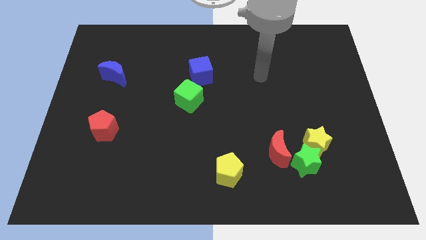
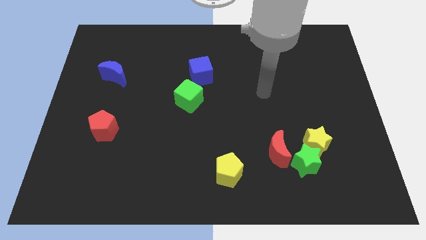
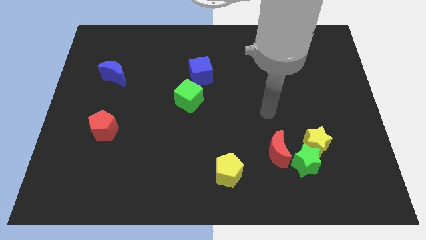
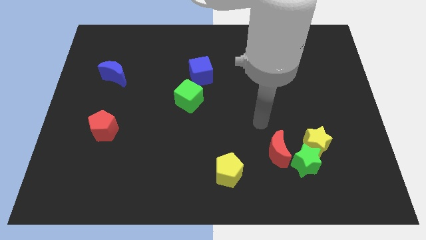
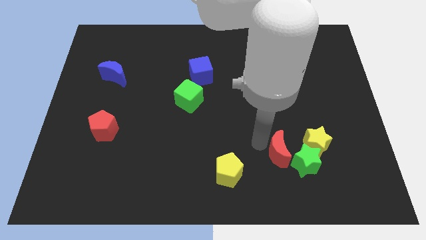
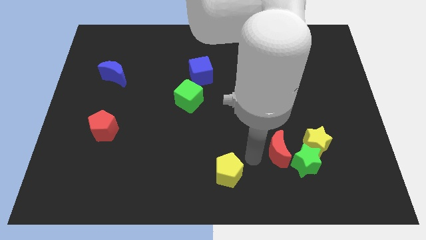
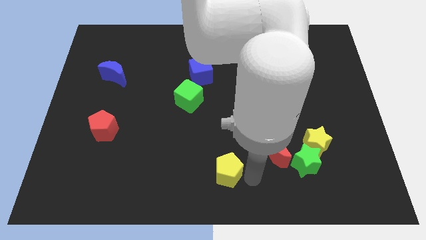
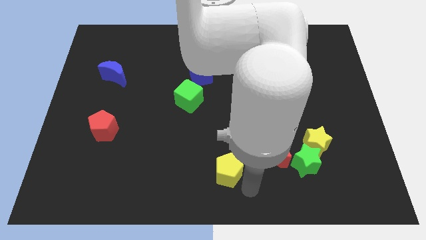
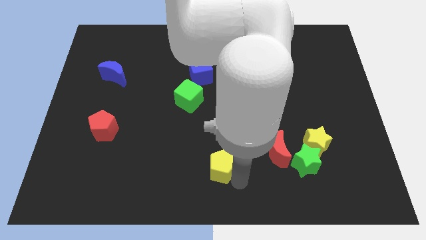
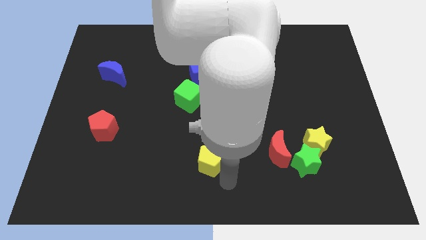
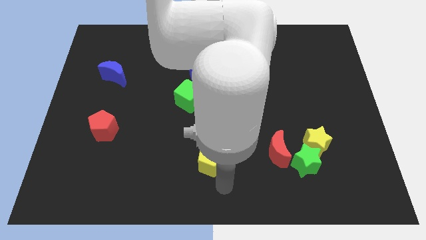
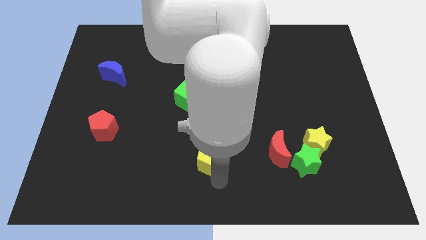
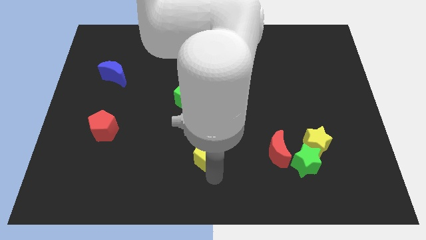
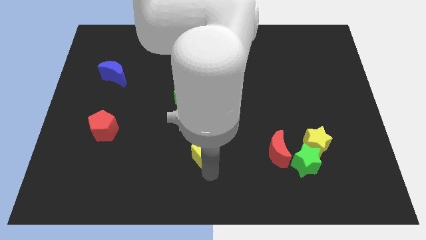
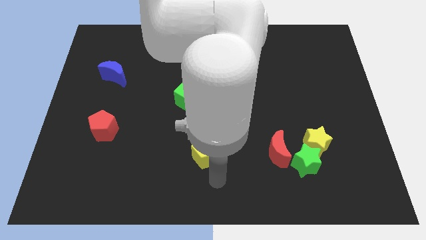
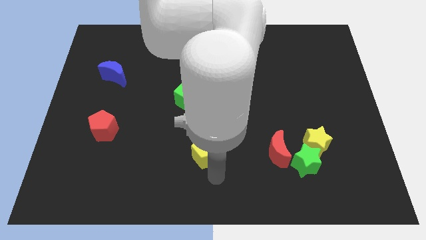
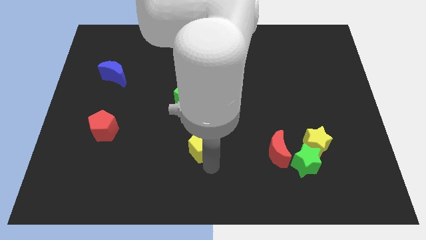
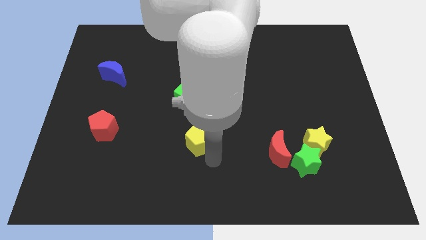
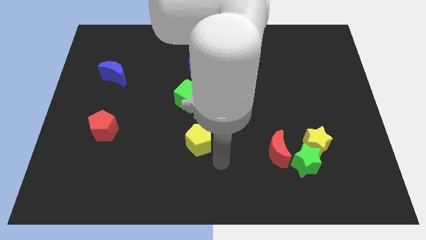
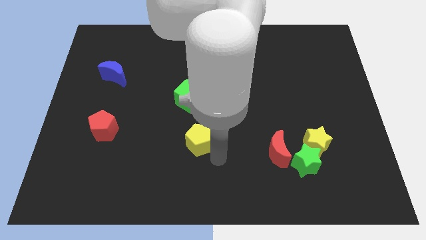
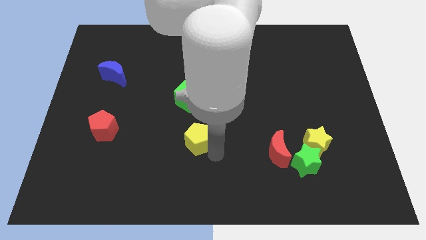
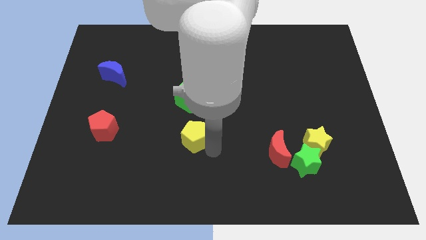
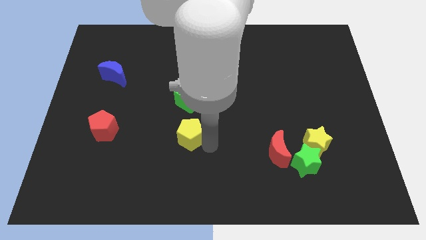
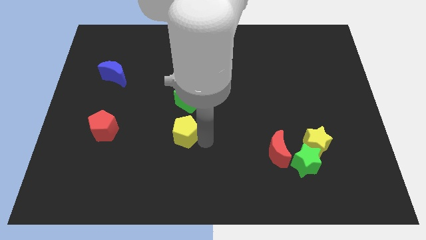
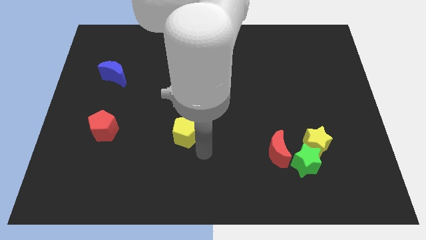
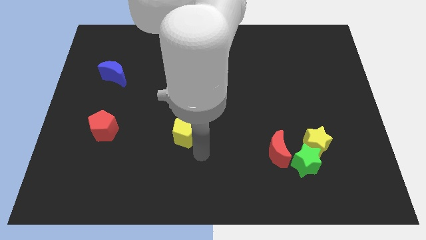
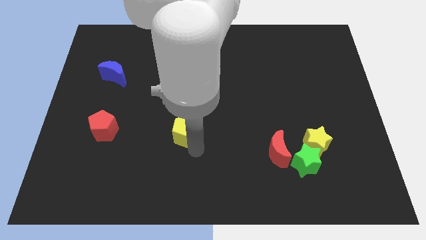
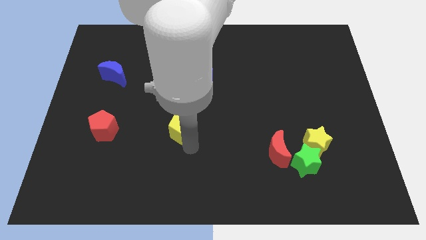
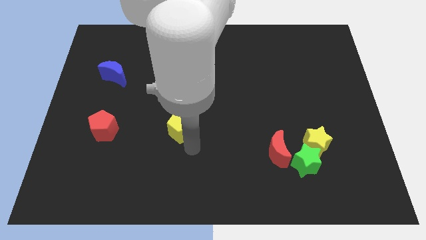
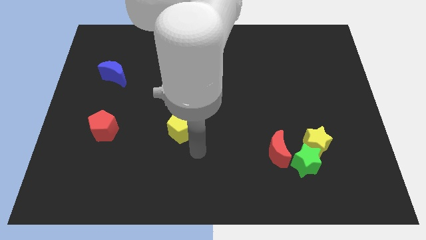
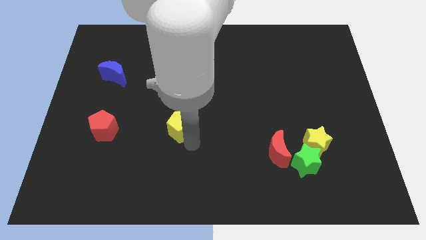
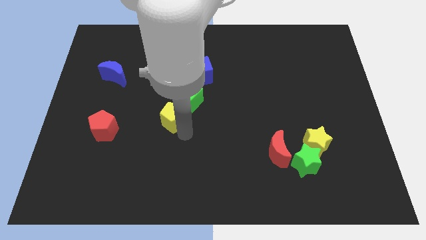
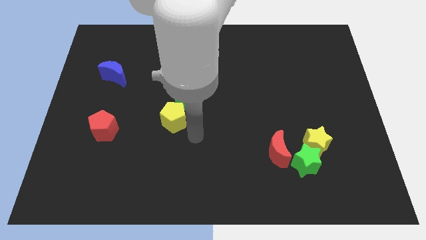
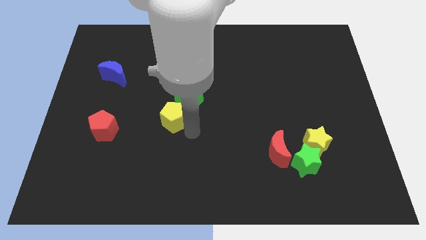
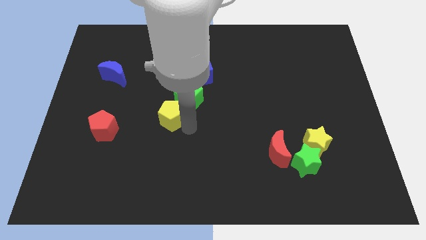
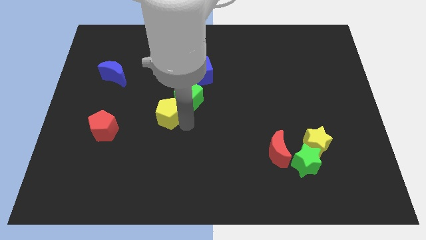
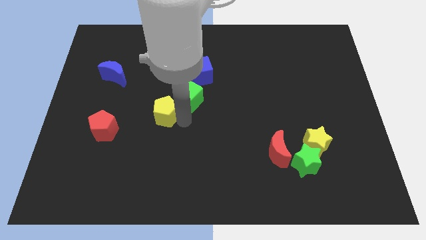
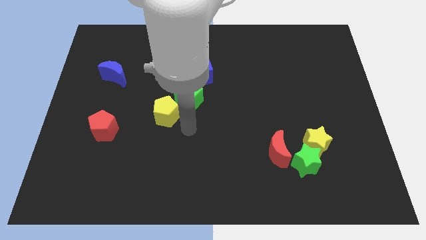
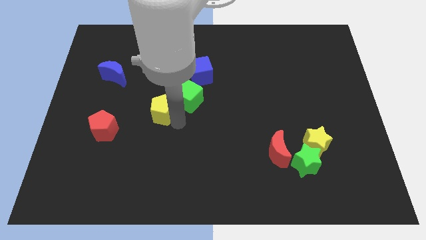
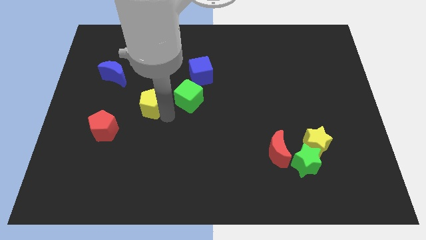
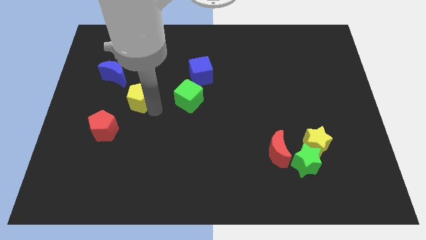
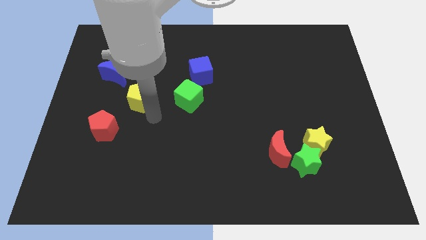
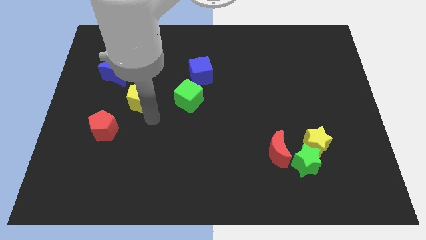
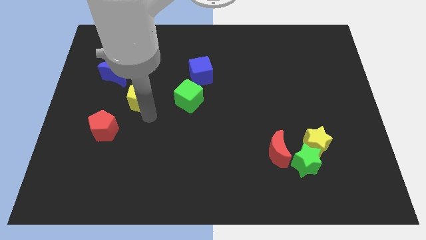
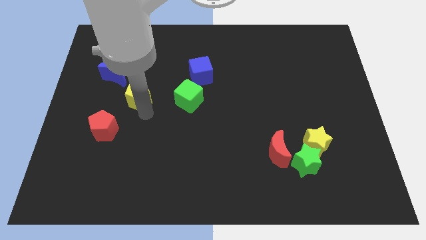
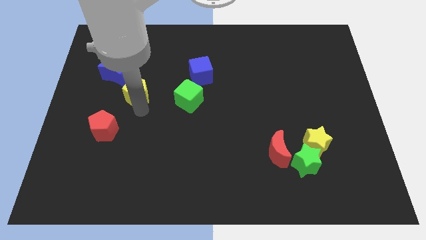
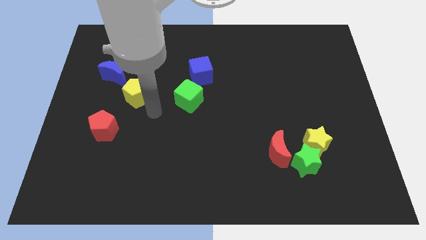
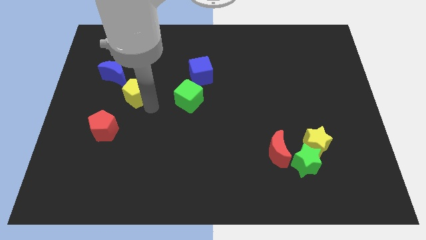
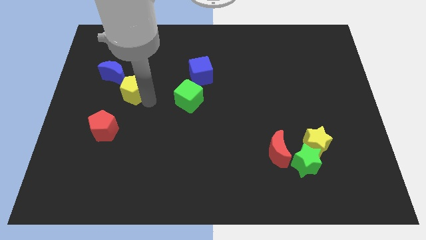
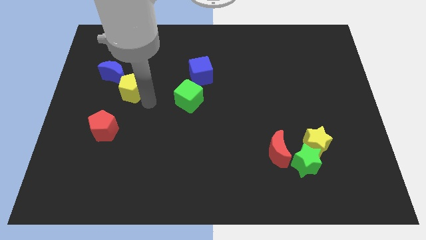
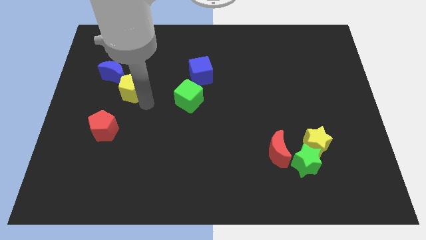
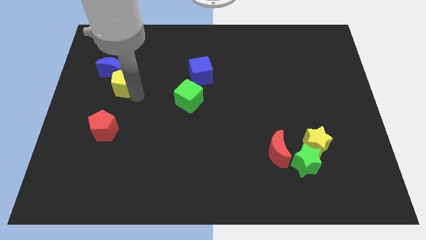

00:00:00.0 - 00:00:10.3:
put the yellow pentagon next to the blue moon

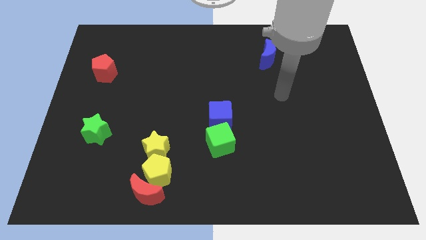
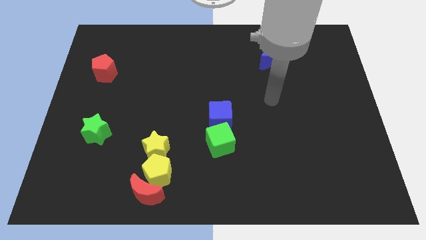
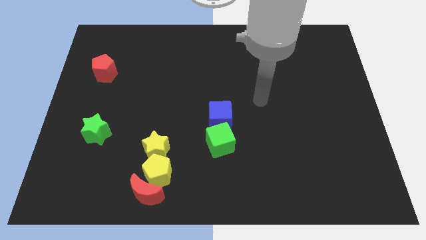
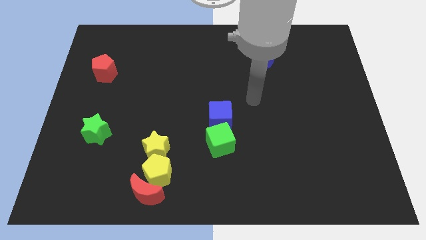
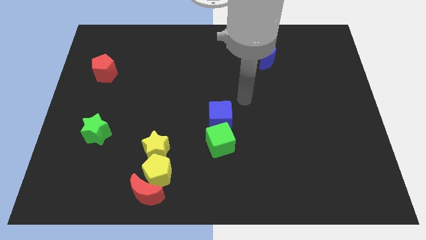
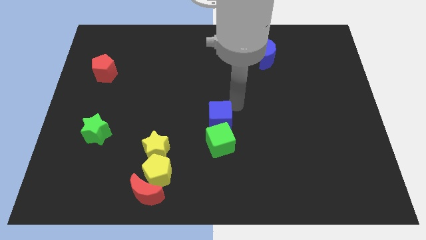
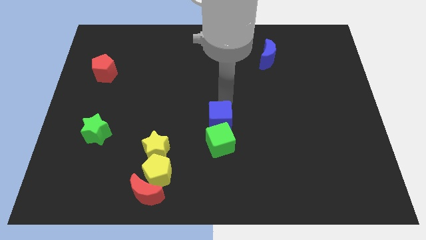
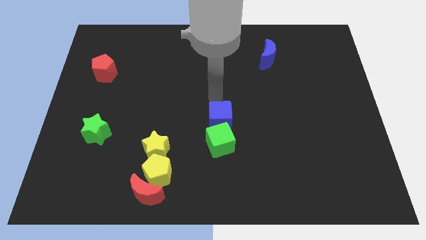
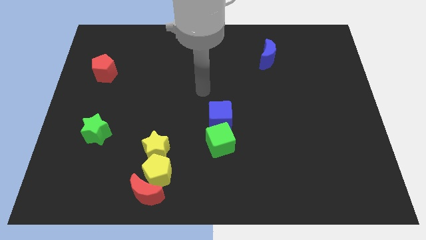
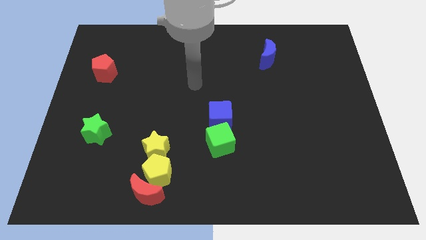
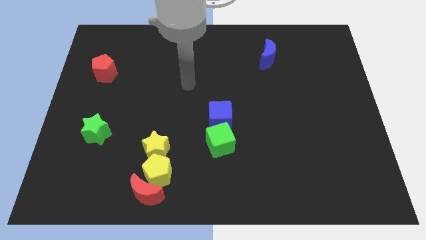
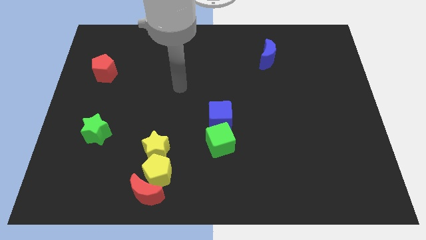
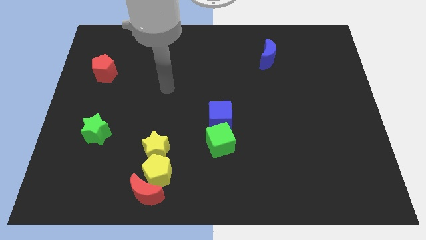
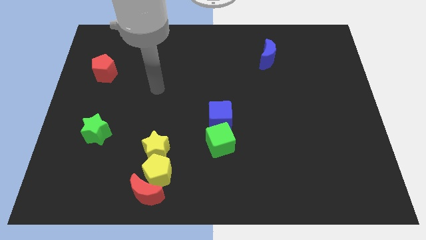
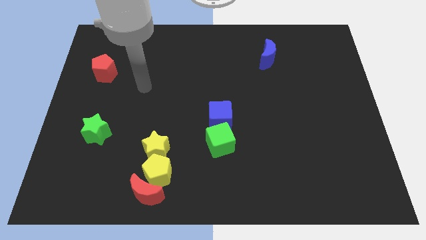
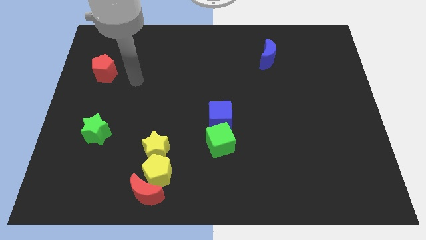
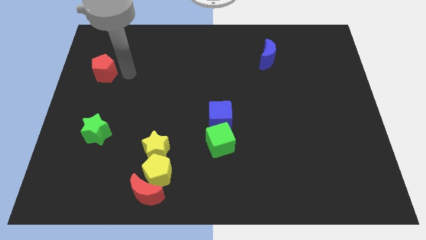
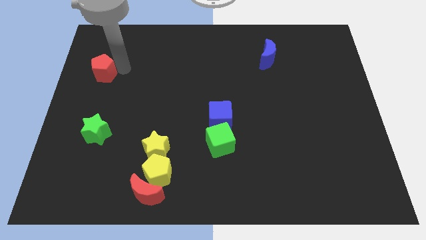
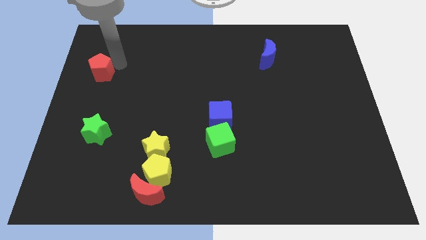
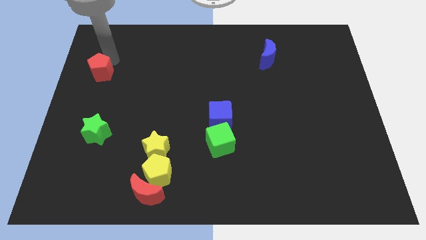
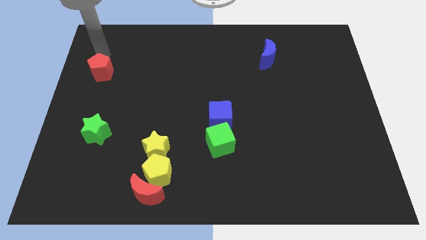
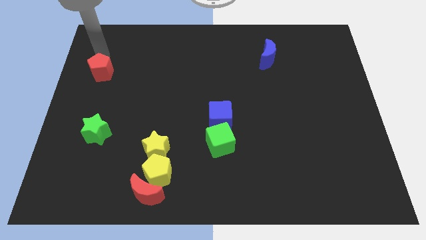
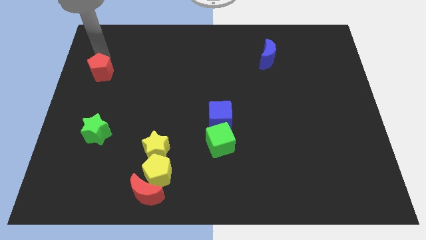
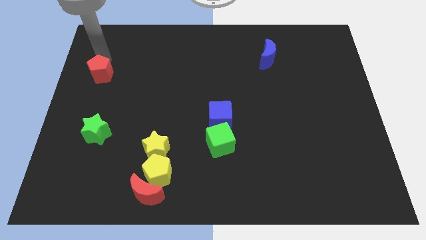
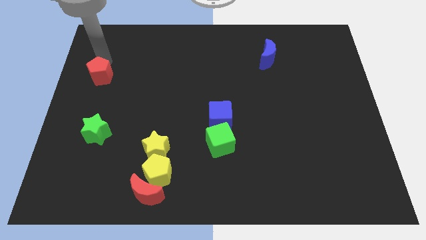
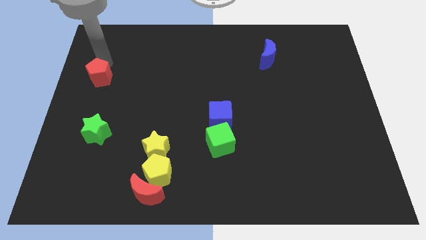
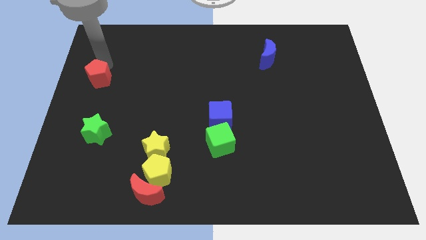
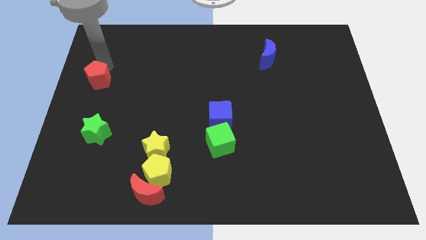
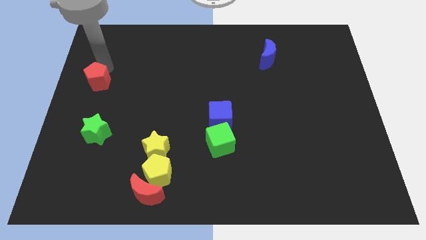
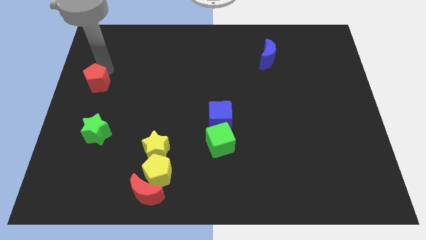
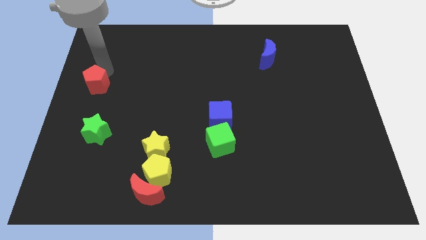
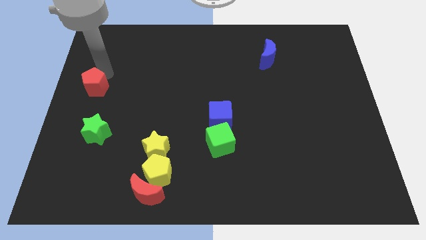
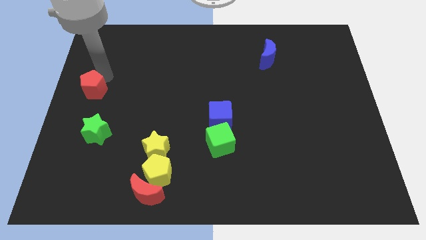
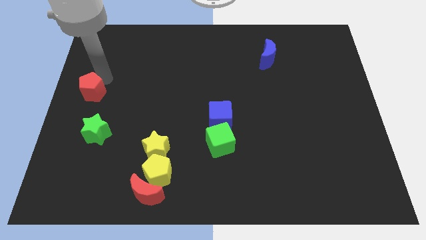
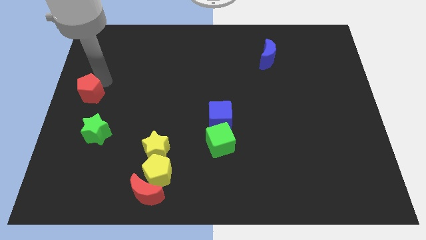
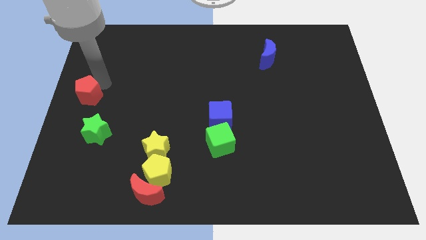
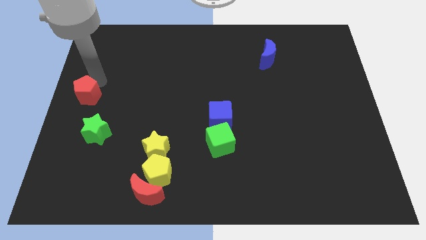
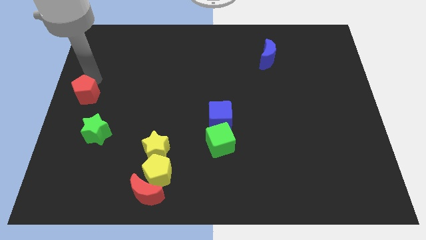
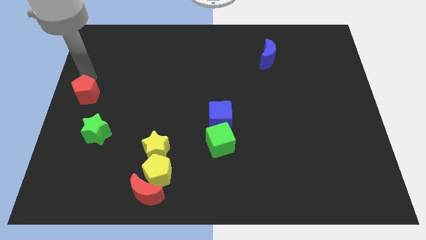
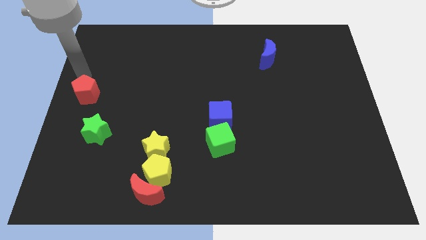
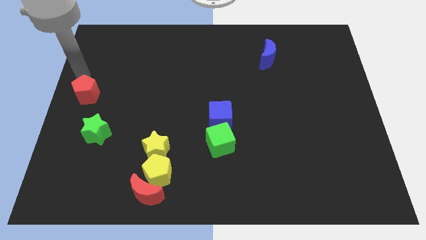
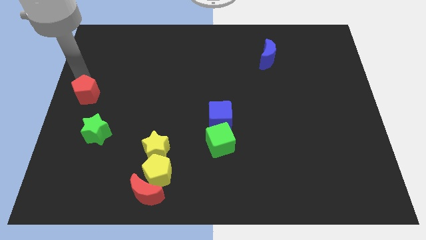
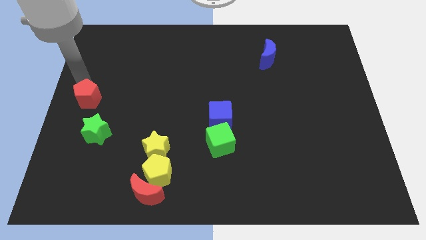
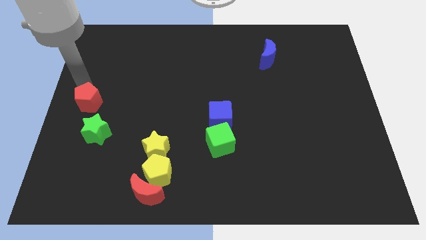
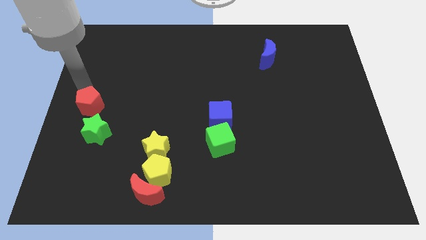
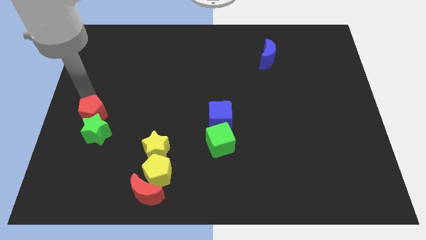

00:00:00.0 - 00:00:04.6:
push the red pentagon close to the green star
